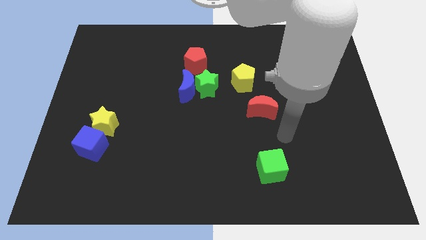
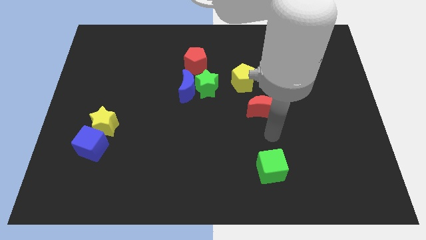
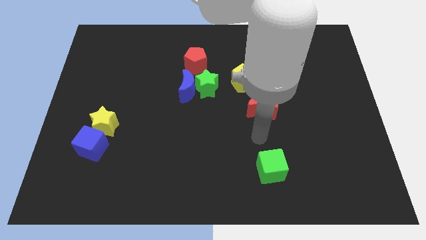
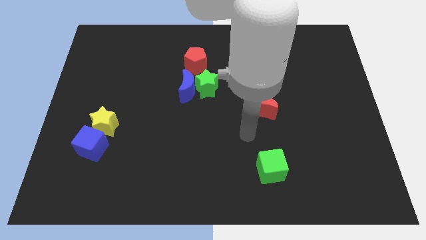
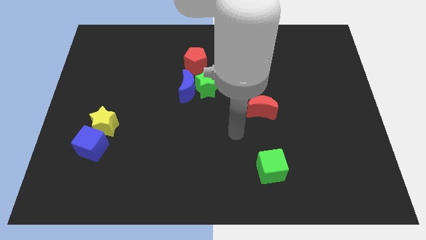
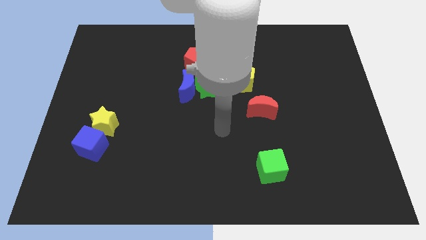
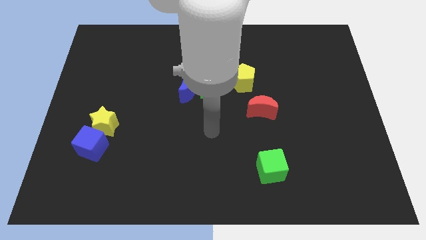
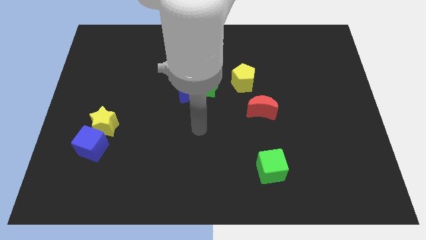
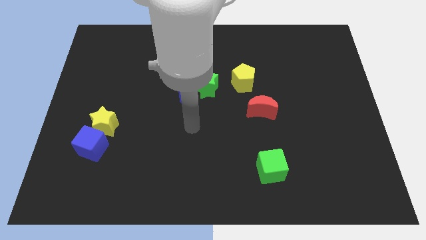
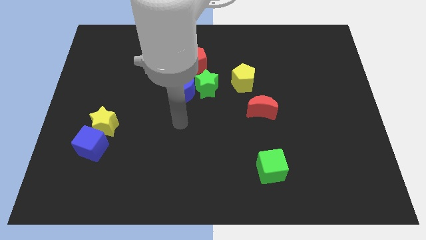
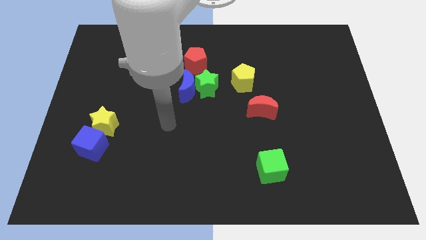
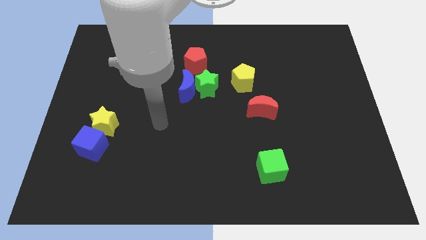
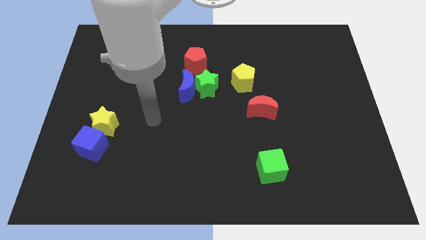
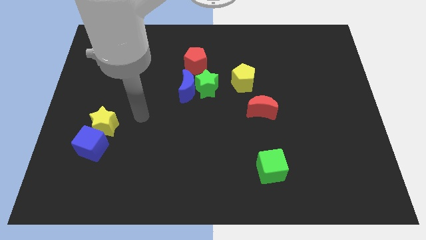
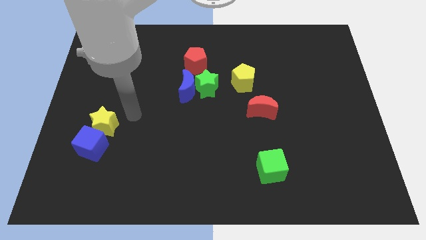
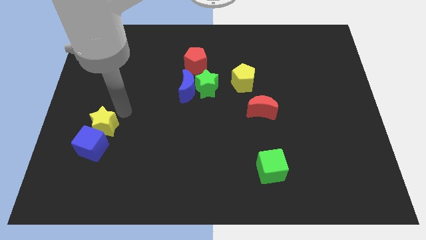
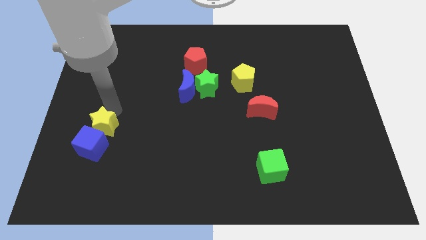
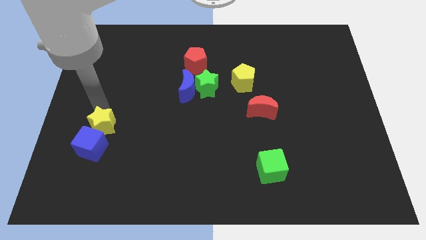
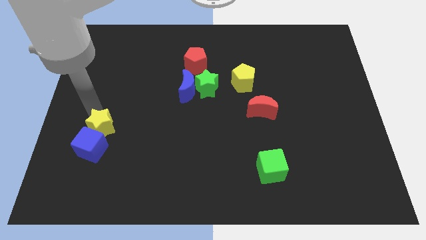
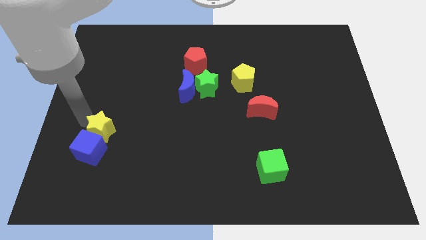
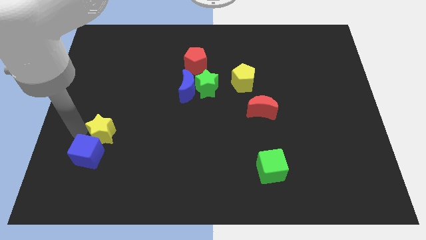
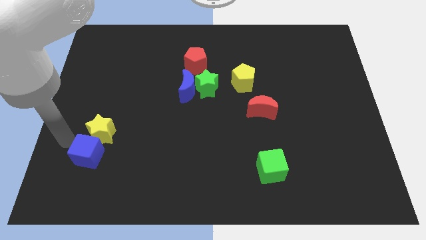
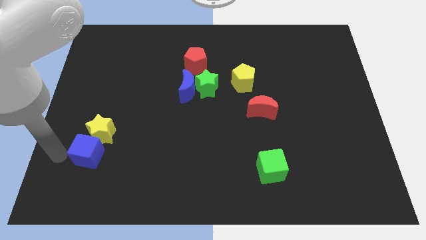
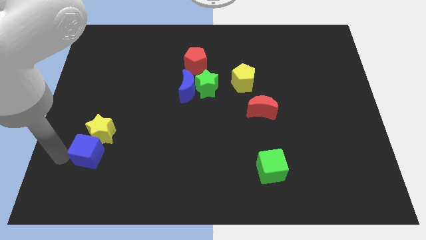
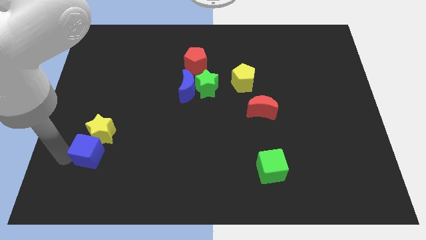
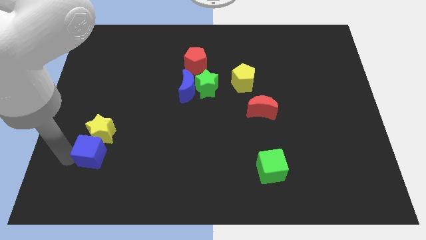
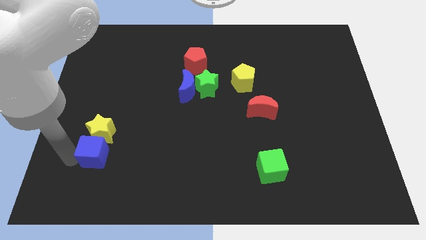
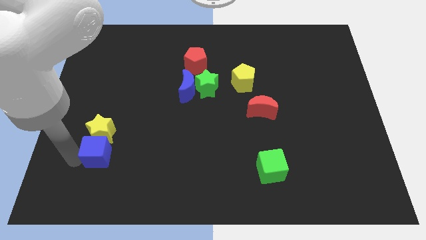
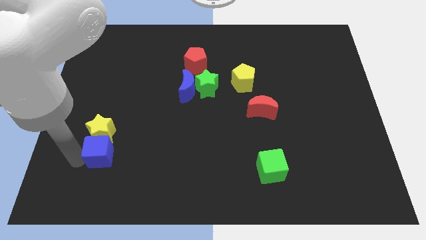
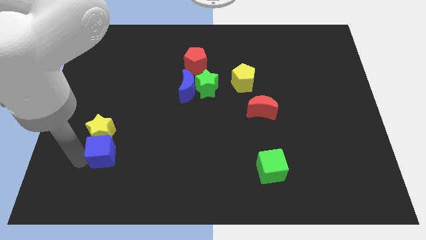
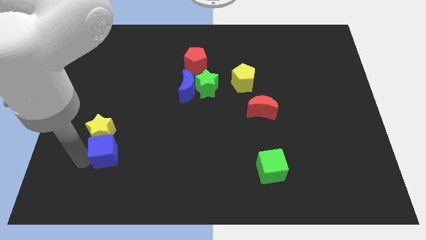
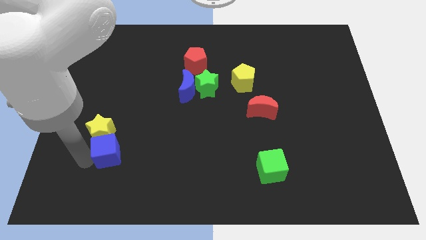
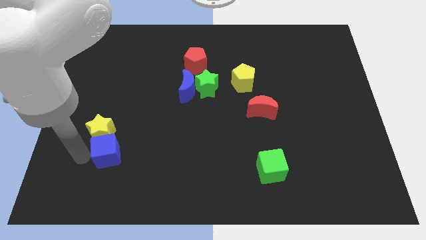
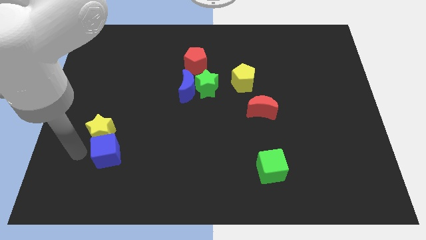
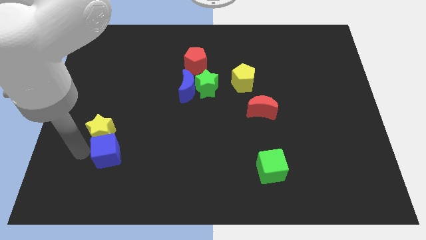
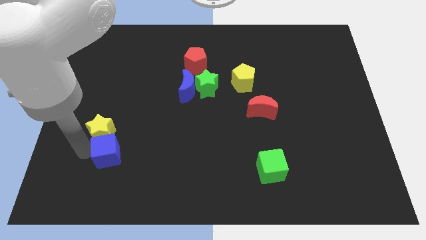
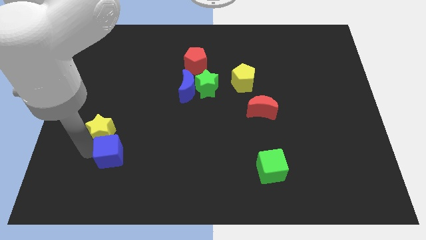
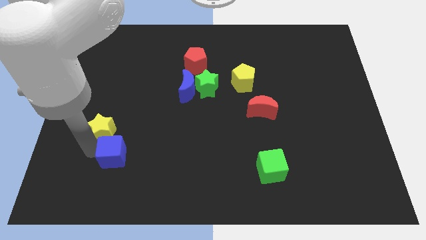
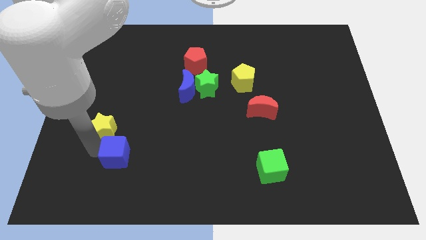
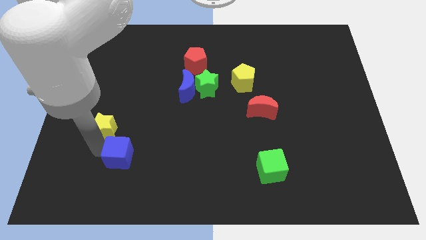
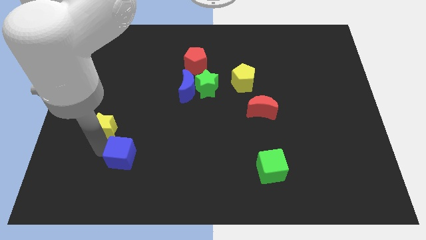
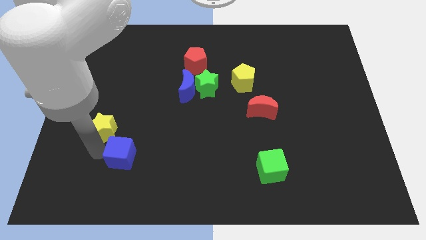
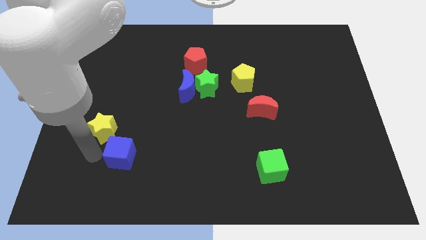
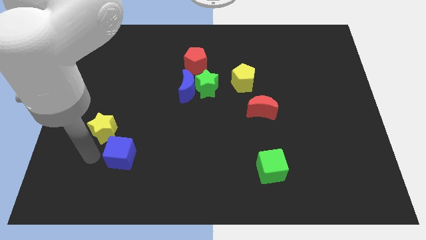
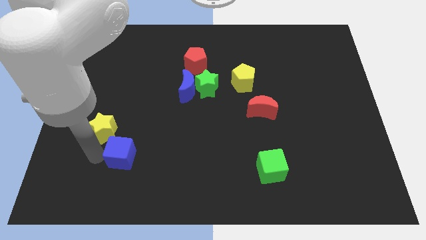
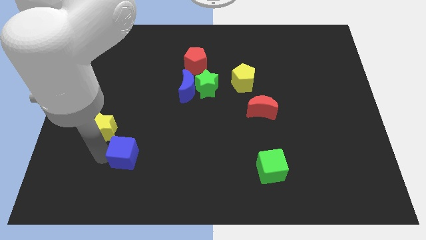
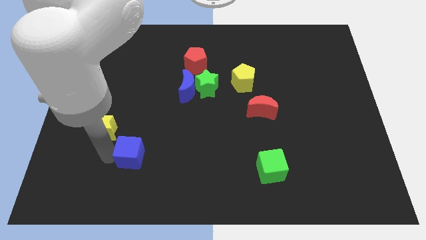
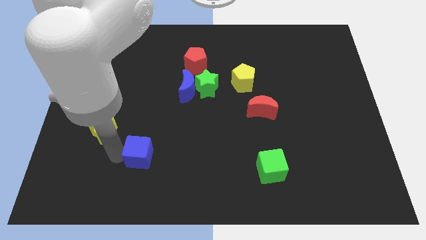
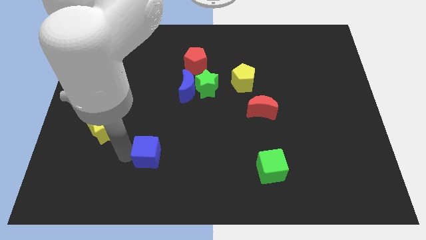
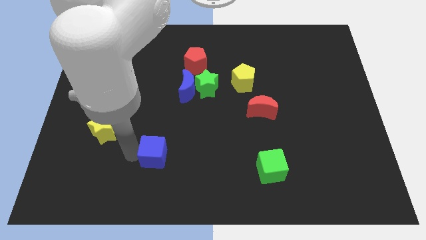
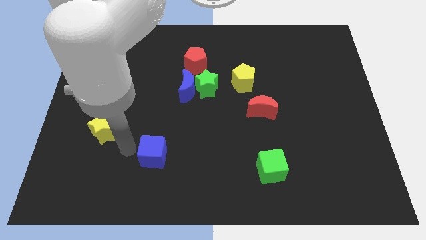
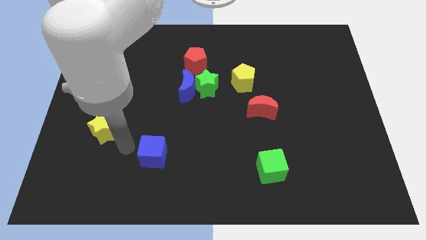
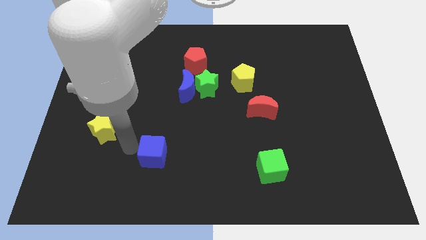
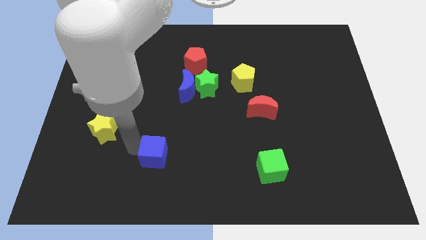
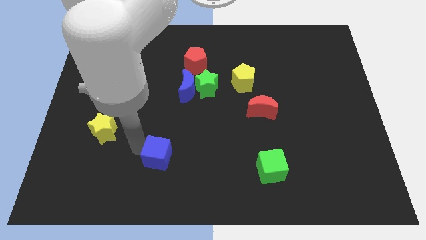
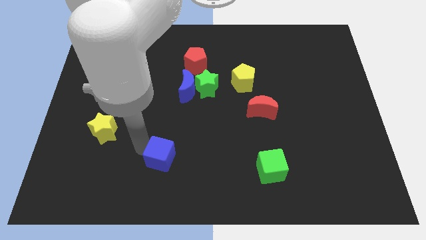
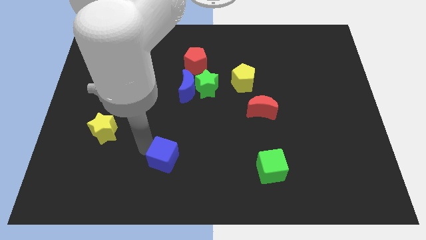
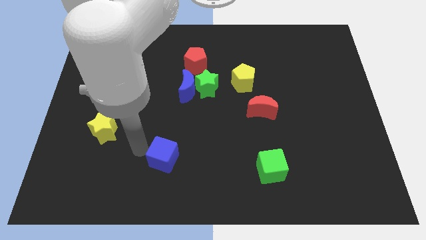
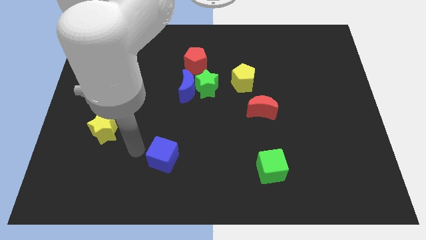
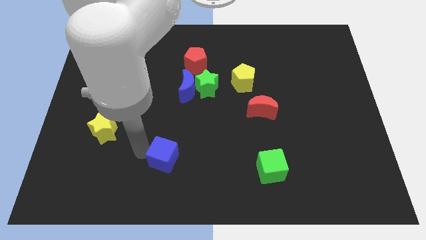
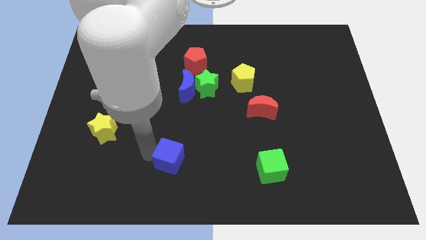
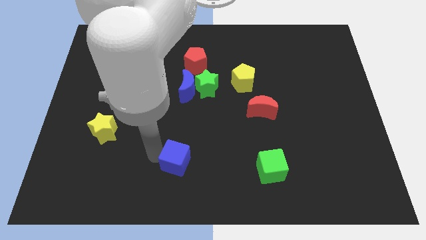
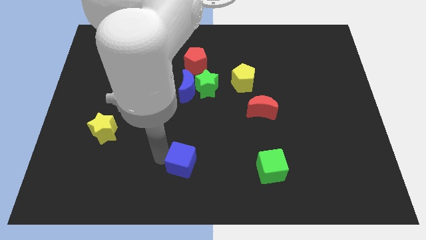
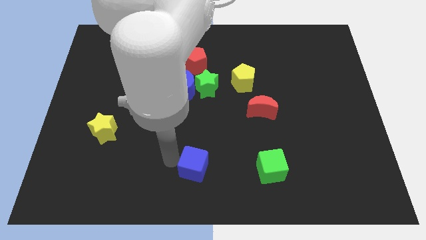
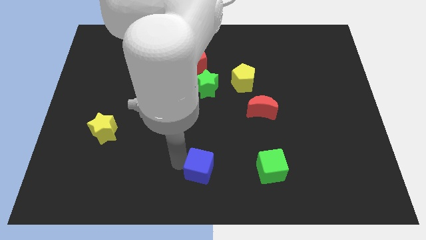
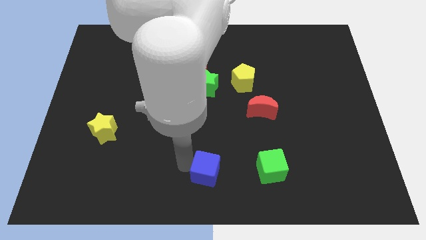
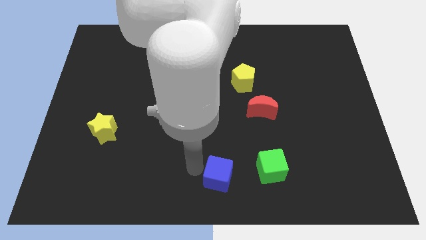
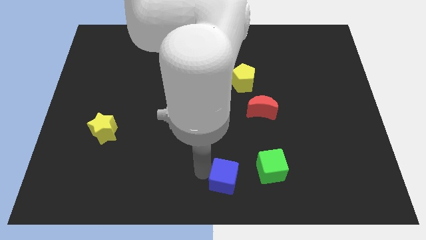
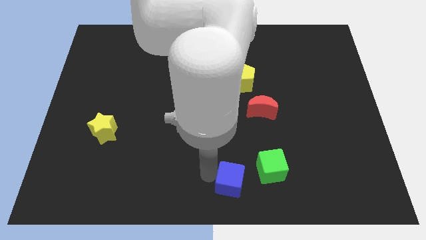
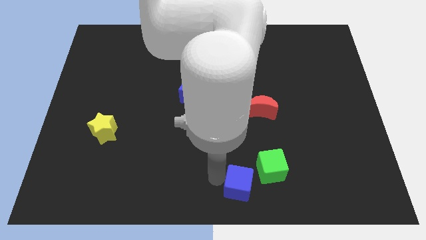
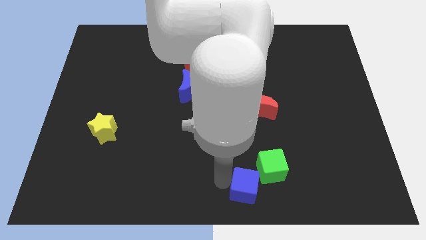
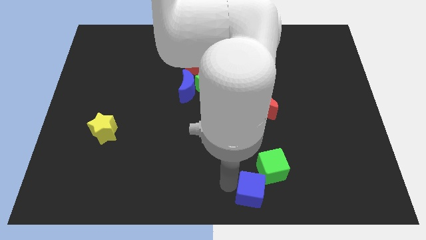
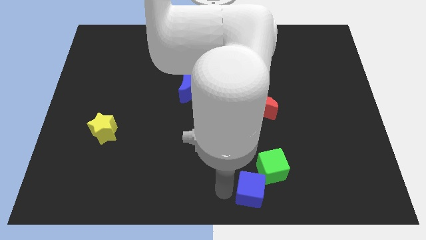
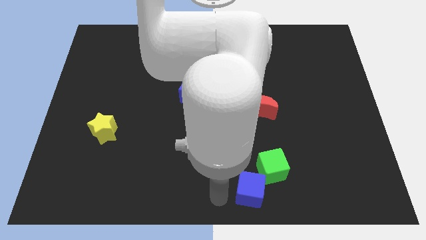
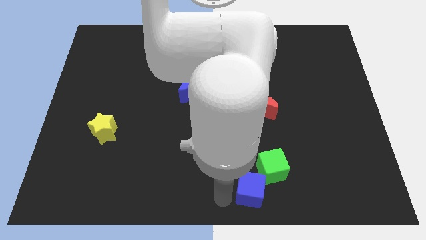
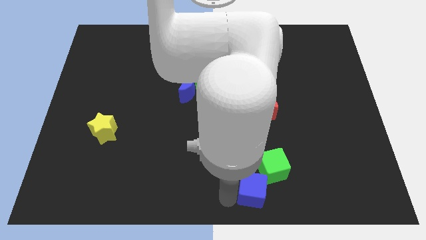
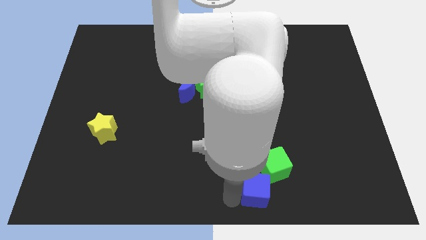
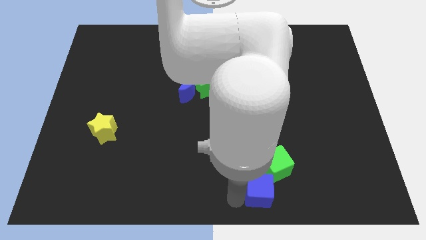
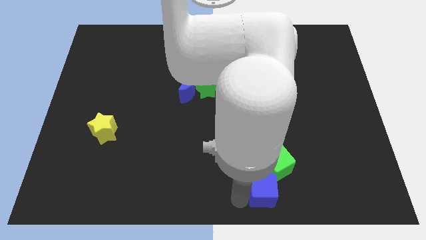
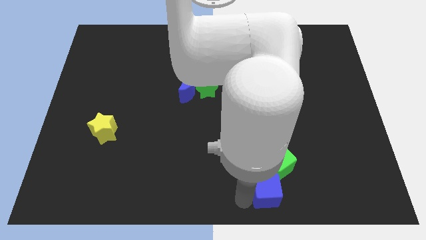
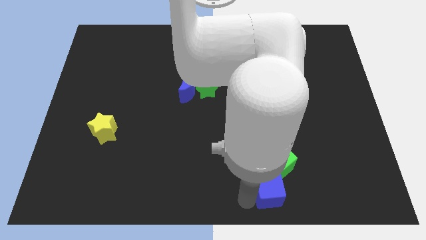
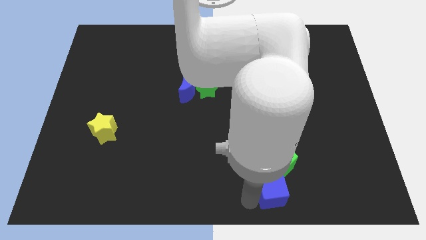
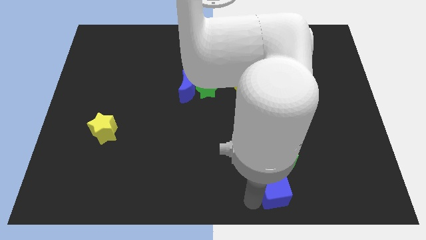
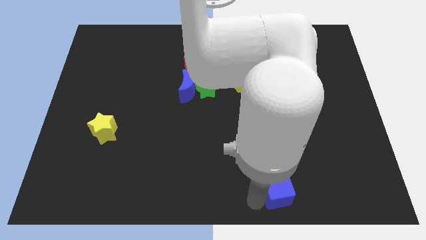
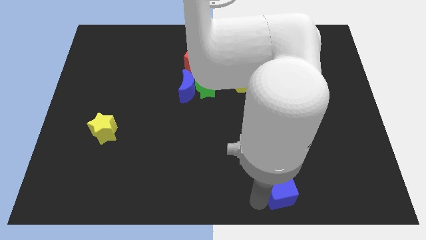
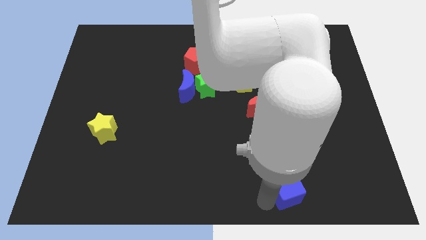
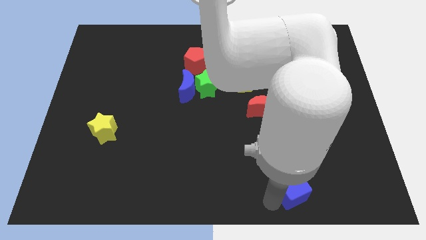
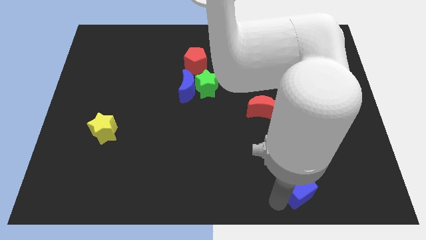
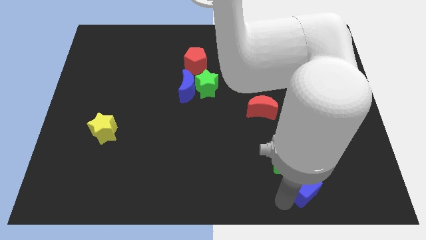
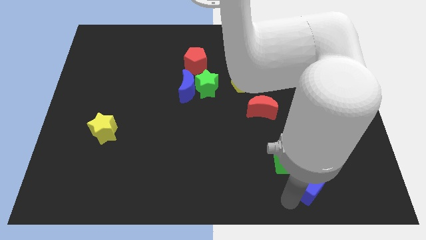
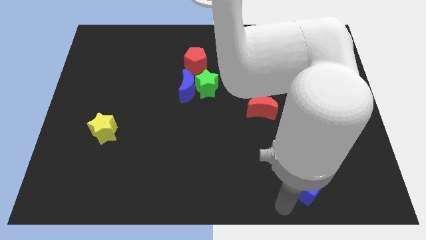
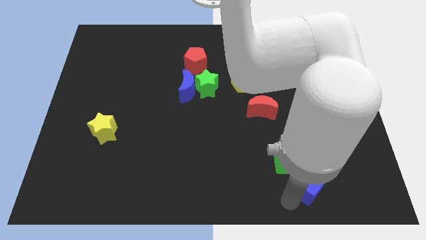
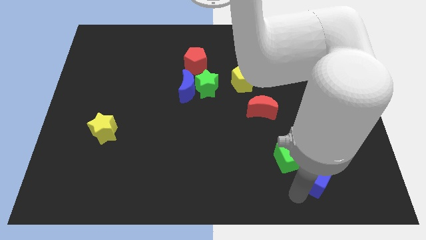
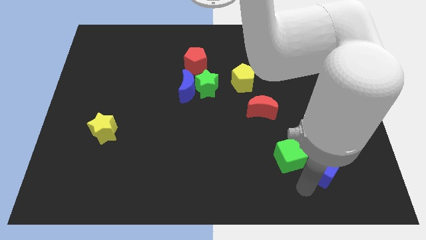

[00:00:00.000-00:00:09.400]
slide the blue cube right of the green cube
